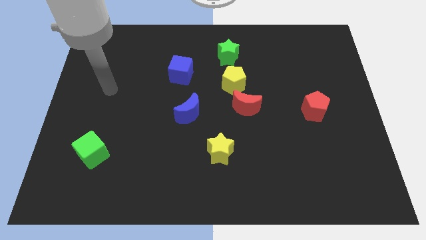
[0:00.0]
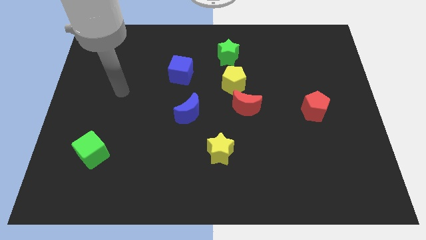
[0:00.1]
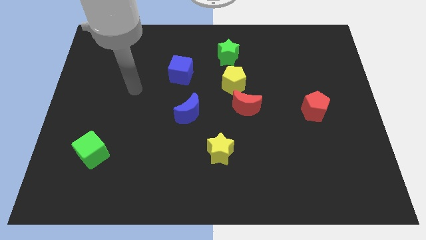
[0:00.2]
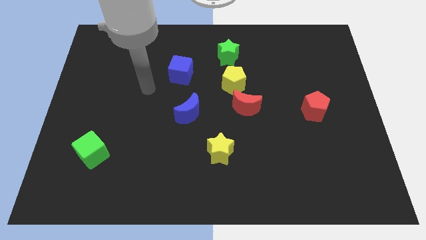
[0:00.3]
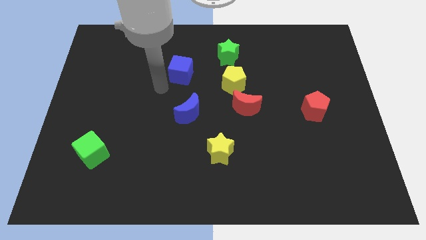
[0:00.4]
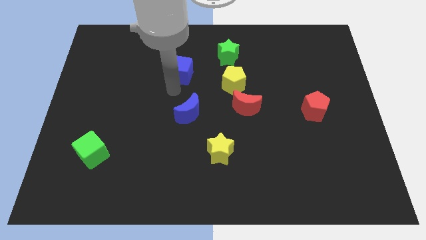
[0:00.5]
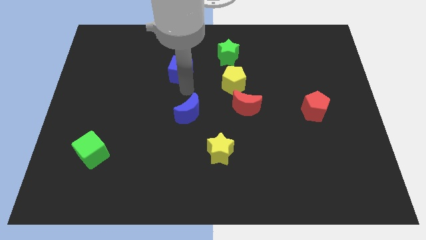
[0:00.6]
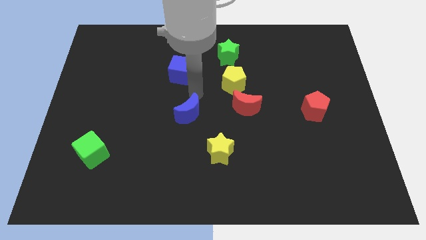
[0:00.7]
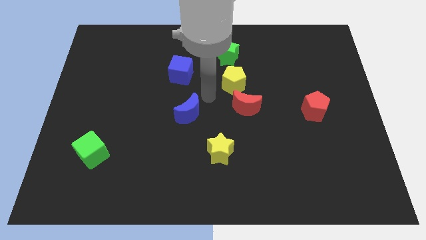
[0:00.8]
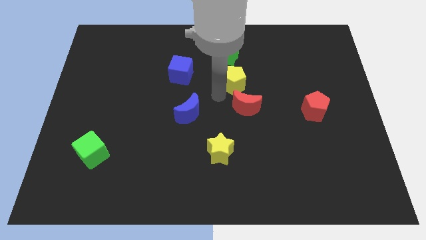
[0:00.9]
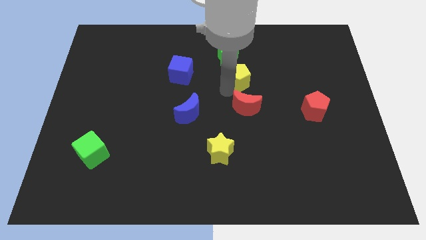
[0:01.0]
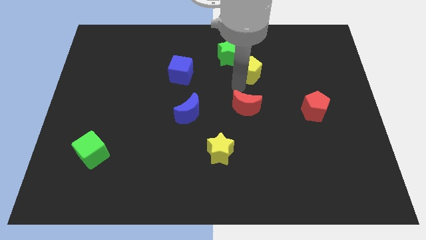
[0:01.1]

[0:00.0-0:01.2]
separate the red moon from the yellow pentagon

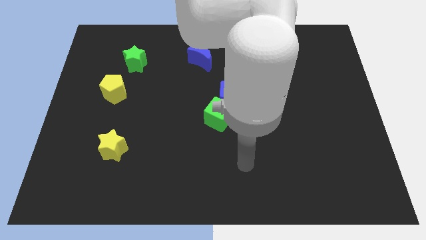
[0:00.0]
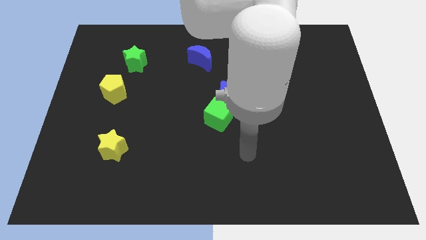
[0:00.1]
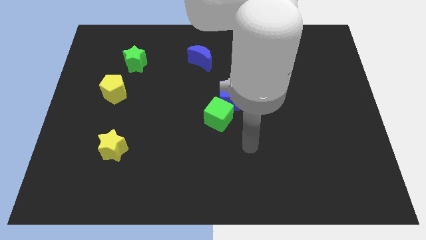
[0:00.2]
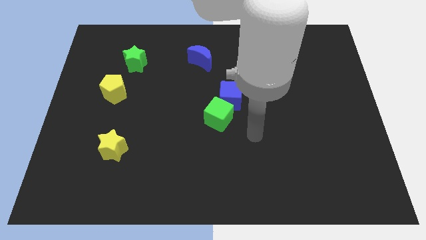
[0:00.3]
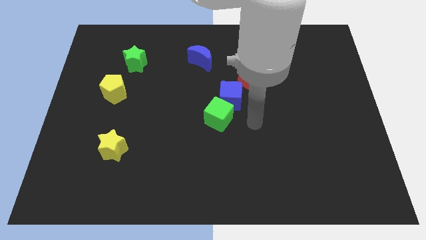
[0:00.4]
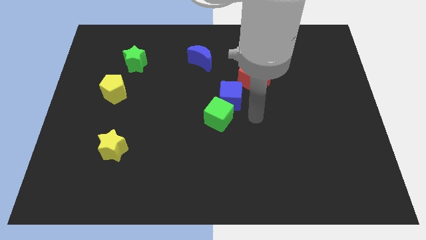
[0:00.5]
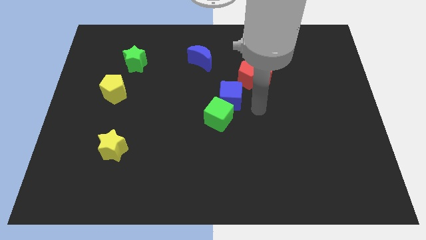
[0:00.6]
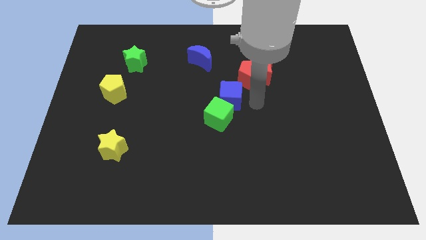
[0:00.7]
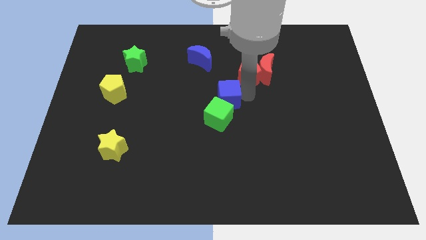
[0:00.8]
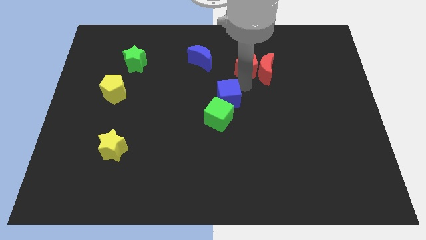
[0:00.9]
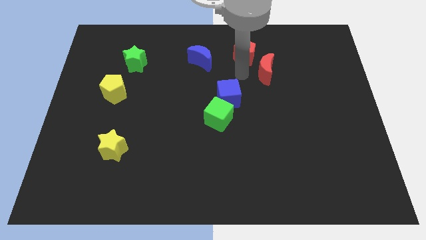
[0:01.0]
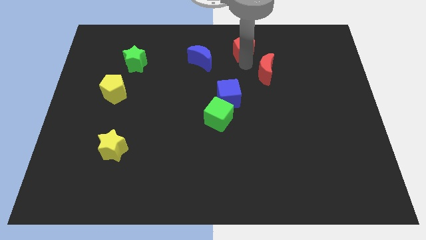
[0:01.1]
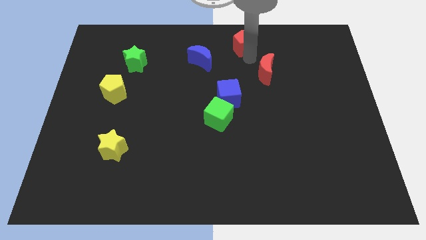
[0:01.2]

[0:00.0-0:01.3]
move the red moon away from the red pentagon

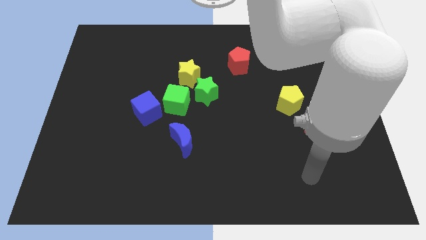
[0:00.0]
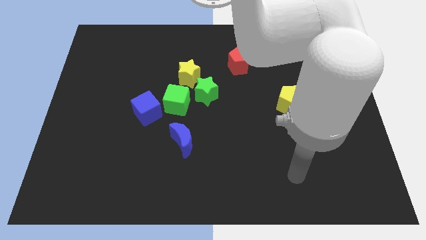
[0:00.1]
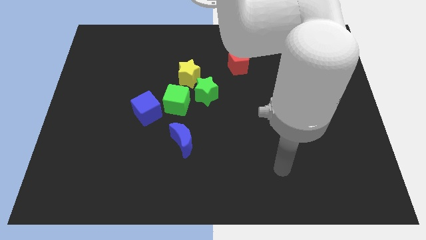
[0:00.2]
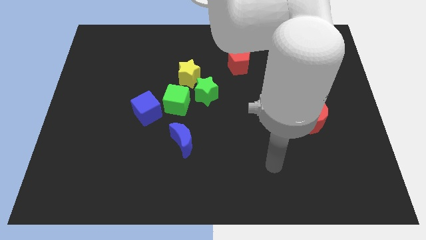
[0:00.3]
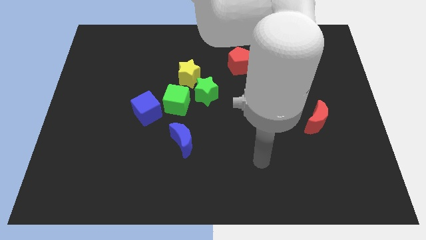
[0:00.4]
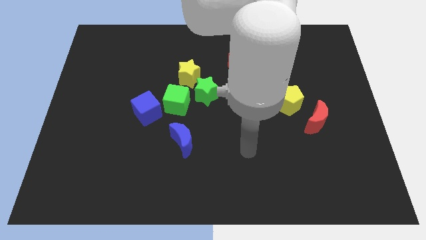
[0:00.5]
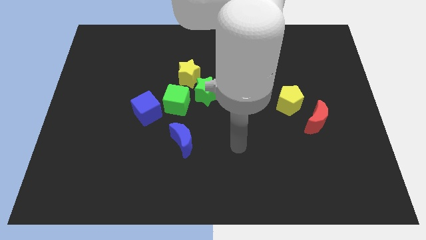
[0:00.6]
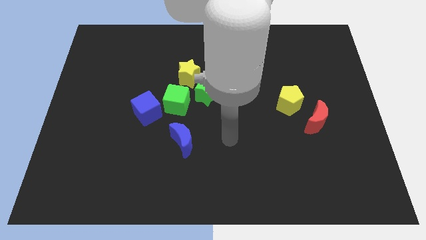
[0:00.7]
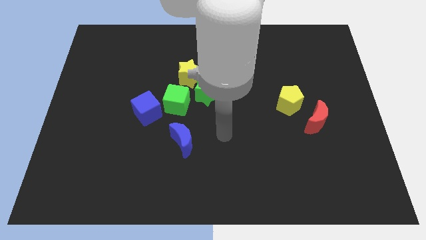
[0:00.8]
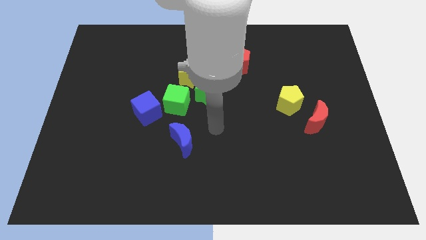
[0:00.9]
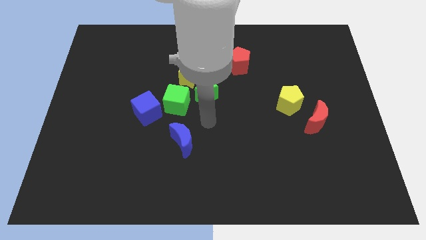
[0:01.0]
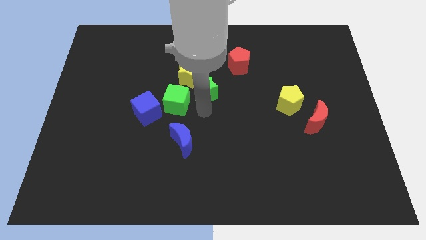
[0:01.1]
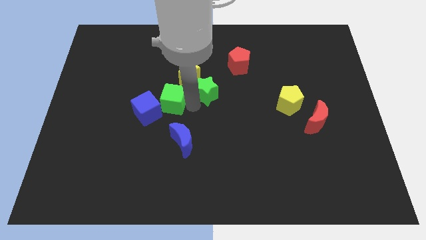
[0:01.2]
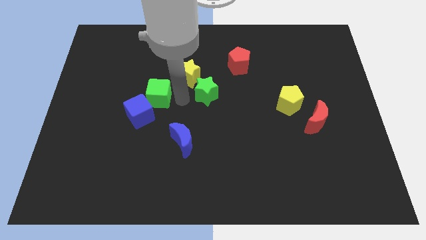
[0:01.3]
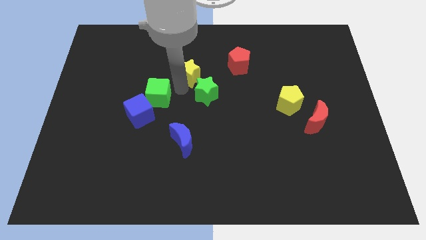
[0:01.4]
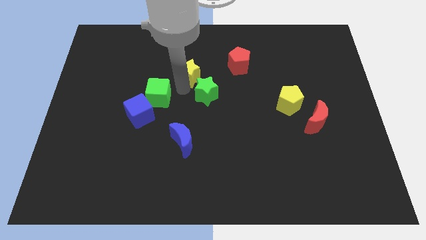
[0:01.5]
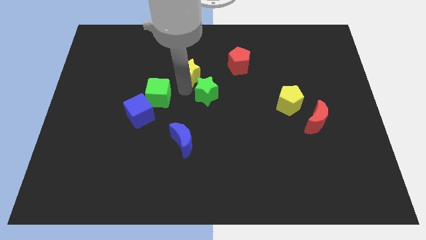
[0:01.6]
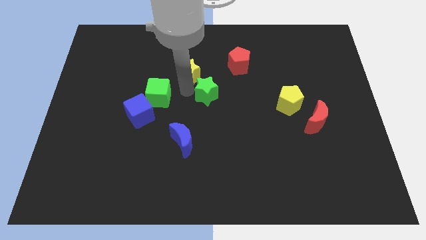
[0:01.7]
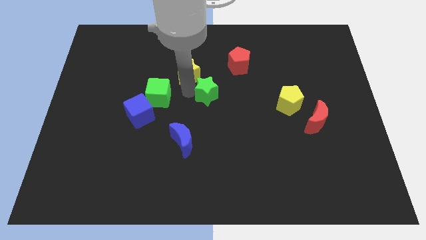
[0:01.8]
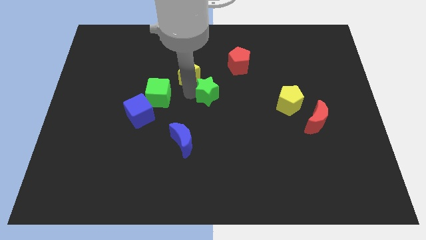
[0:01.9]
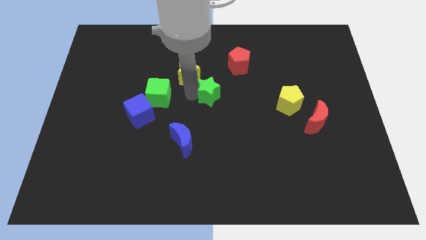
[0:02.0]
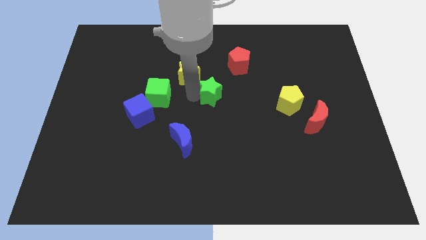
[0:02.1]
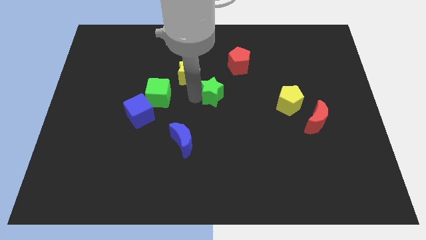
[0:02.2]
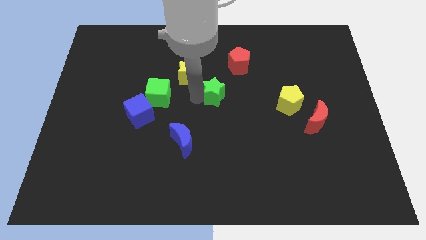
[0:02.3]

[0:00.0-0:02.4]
separate the green star from the yellow star and green cube

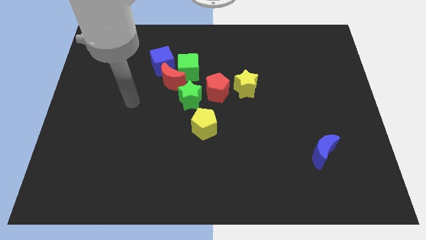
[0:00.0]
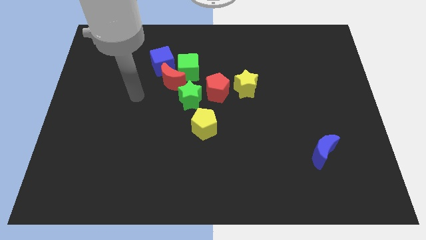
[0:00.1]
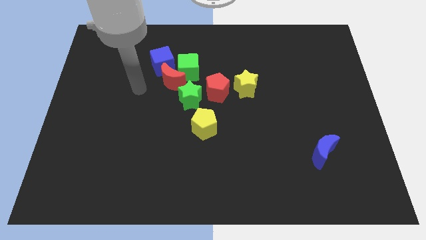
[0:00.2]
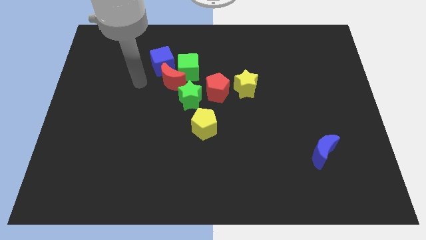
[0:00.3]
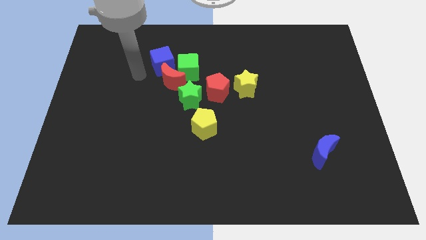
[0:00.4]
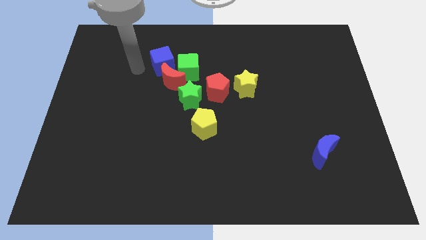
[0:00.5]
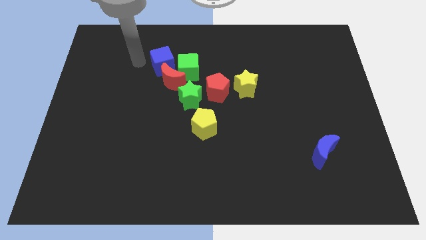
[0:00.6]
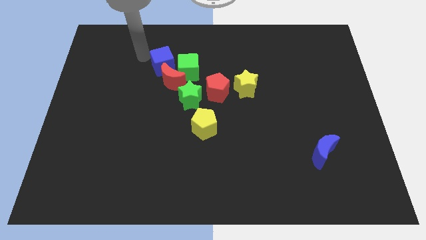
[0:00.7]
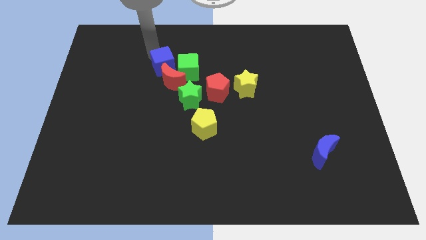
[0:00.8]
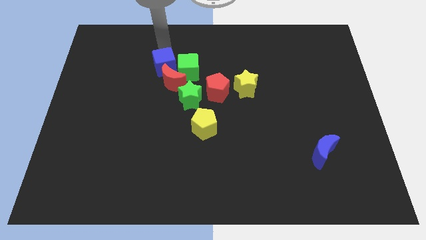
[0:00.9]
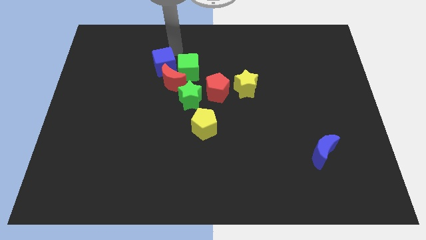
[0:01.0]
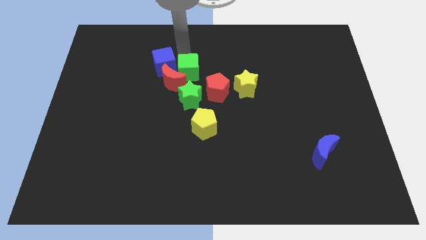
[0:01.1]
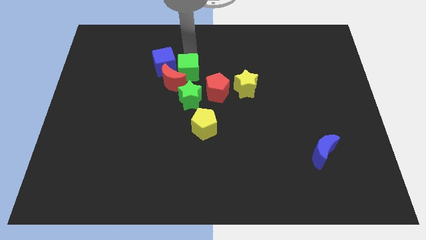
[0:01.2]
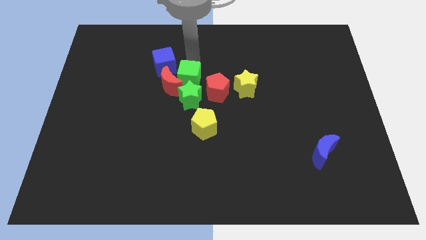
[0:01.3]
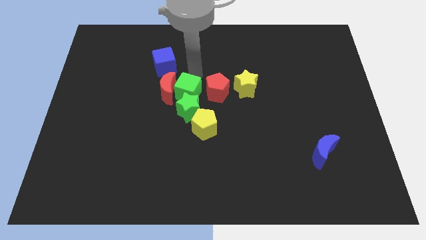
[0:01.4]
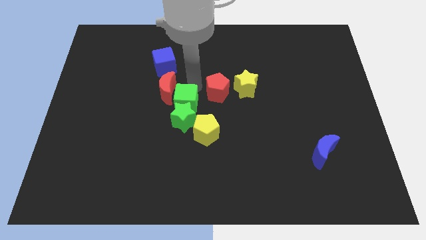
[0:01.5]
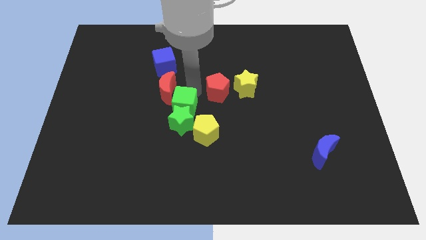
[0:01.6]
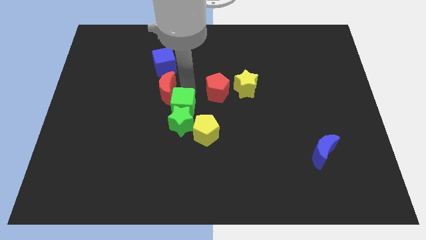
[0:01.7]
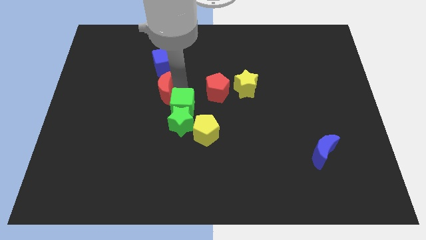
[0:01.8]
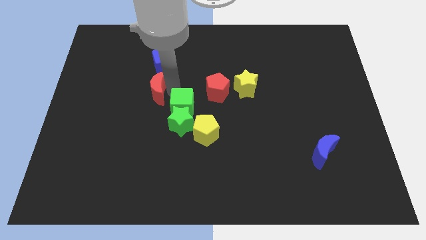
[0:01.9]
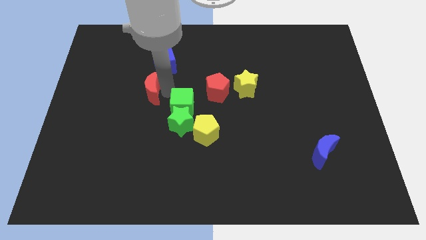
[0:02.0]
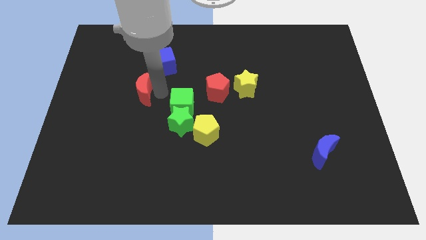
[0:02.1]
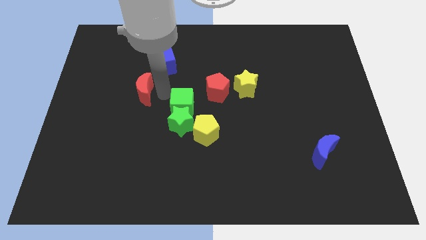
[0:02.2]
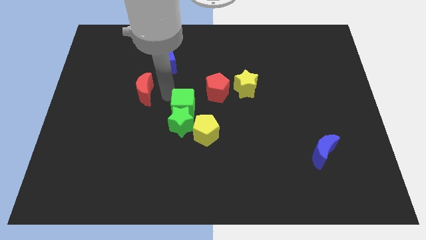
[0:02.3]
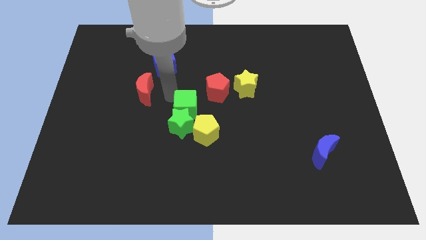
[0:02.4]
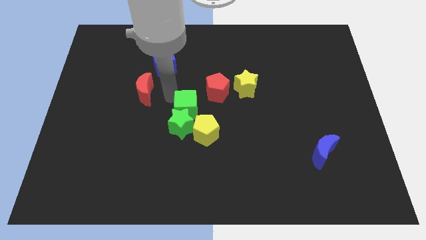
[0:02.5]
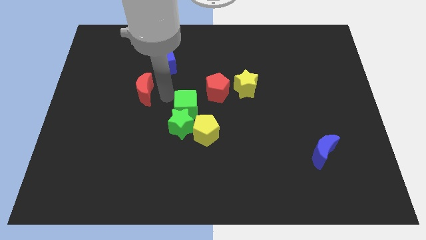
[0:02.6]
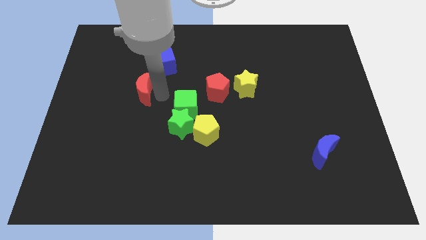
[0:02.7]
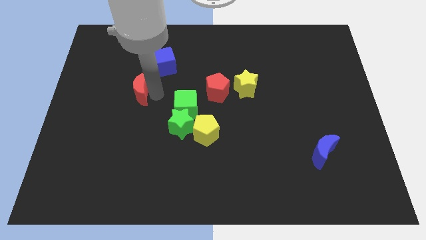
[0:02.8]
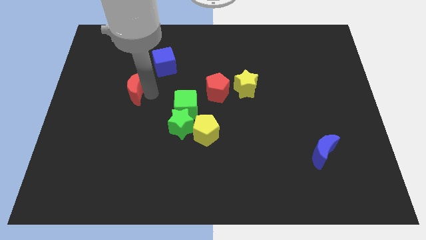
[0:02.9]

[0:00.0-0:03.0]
separate the red moon from the green cube, blue cube, and green star

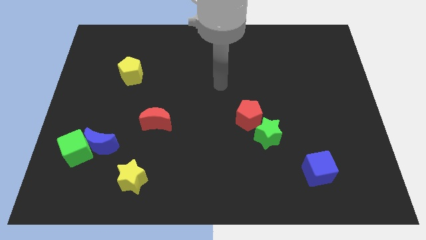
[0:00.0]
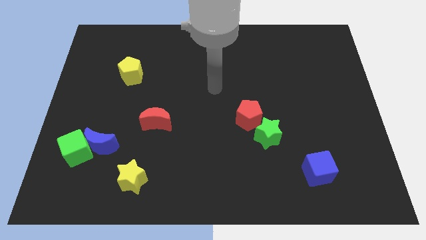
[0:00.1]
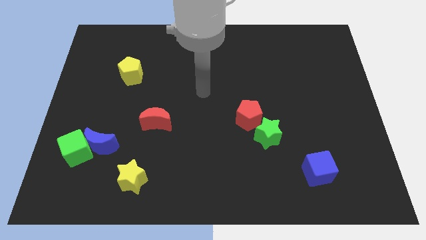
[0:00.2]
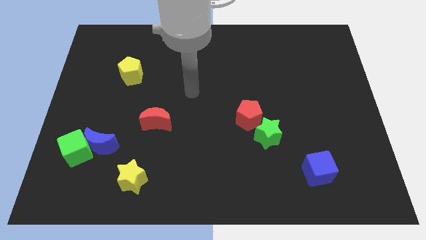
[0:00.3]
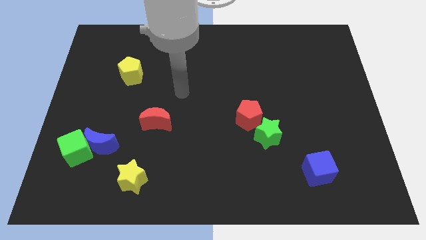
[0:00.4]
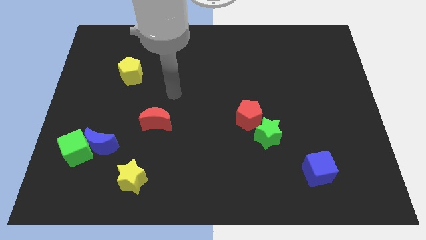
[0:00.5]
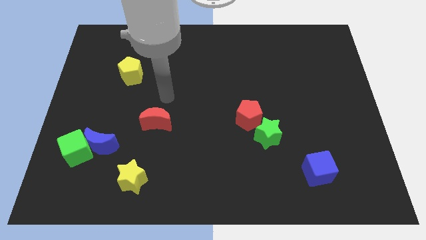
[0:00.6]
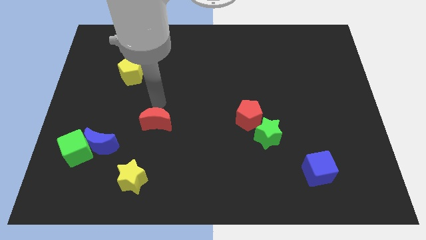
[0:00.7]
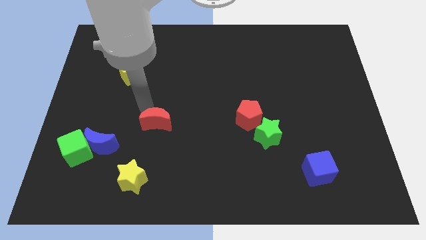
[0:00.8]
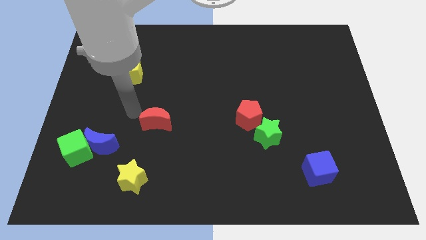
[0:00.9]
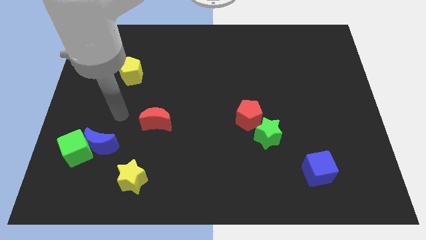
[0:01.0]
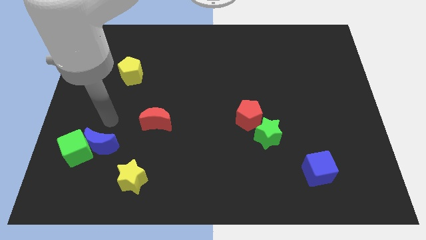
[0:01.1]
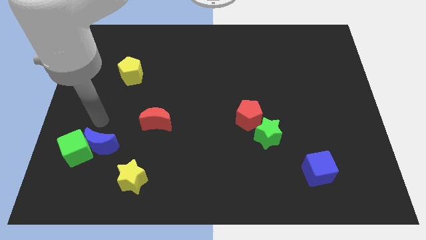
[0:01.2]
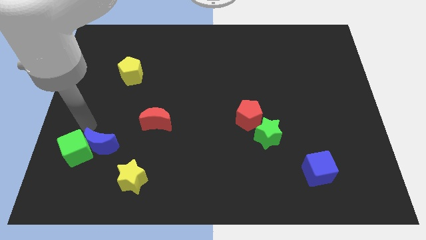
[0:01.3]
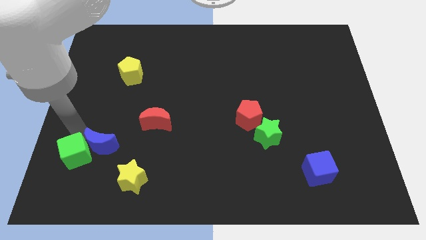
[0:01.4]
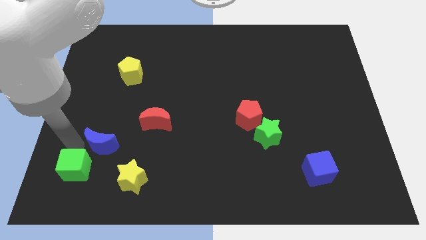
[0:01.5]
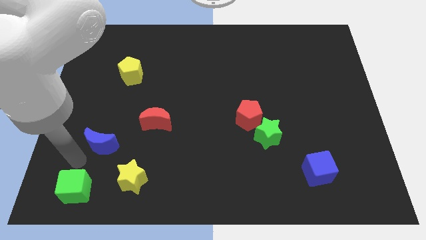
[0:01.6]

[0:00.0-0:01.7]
move the blue moon away from the green cube
